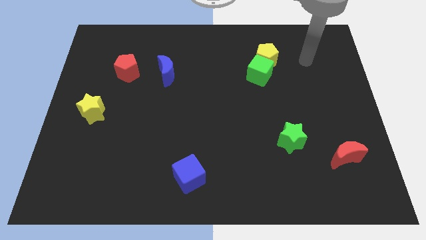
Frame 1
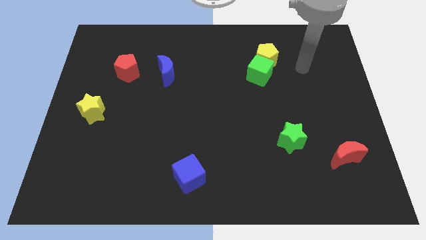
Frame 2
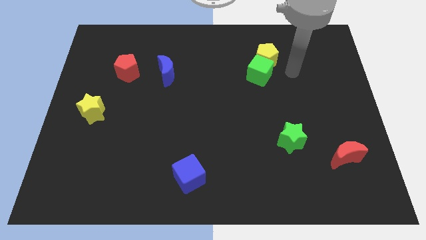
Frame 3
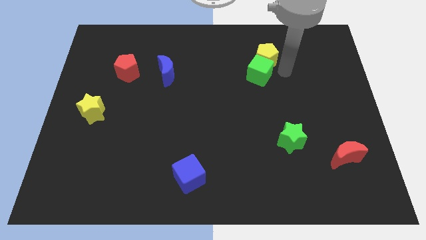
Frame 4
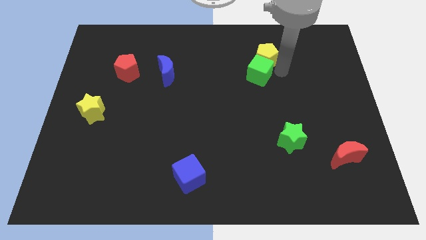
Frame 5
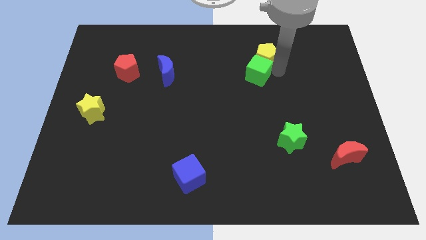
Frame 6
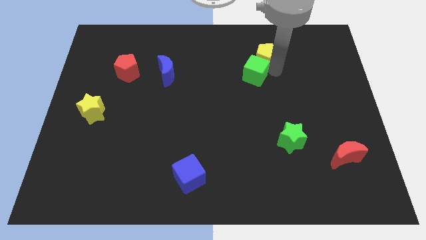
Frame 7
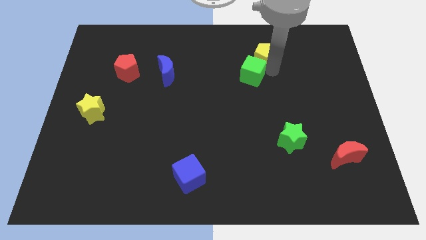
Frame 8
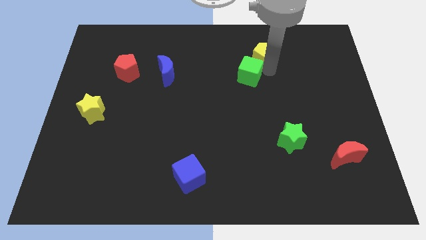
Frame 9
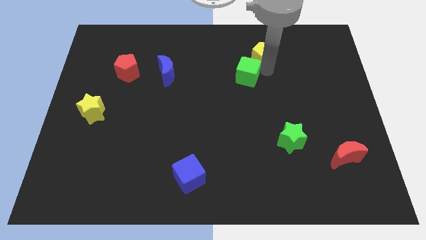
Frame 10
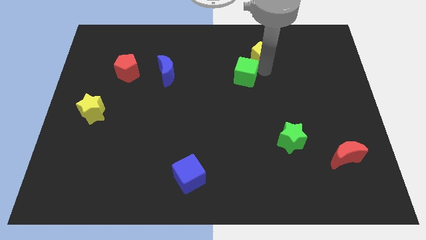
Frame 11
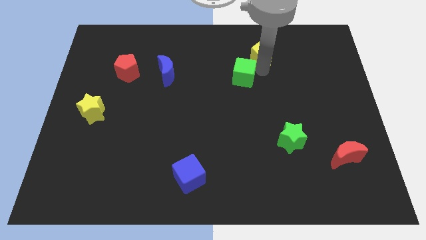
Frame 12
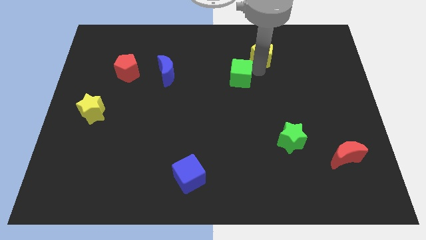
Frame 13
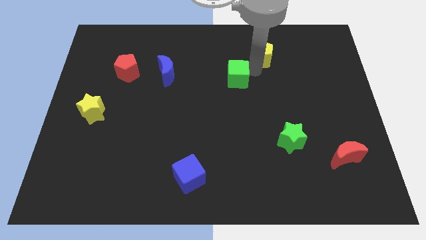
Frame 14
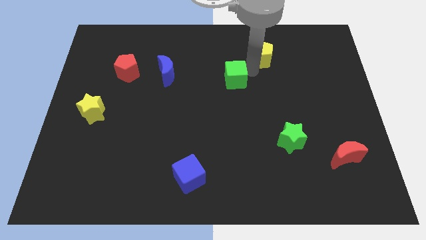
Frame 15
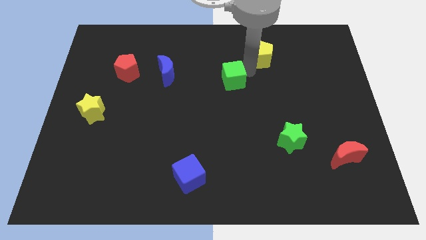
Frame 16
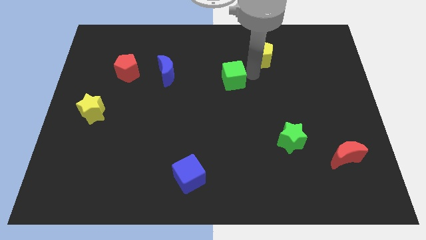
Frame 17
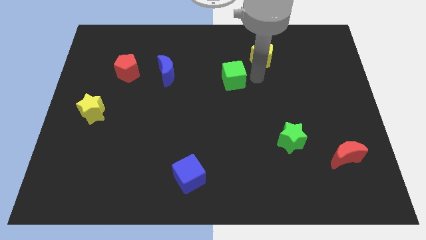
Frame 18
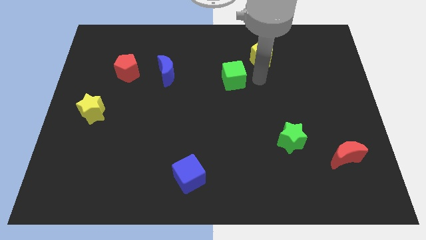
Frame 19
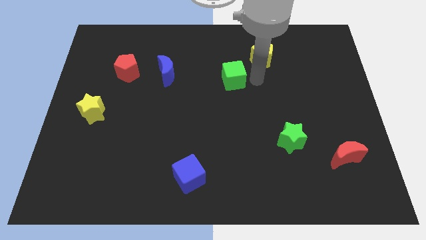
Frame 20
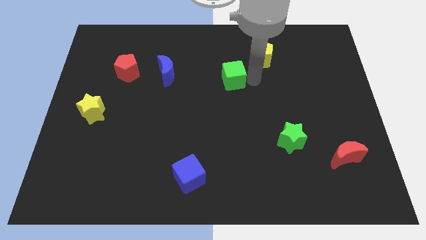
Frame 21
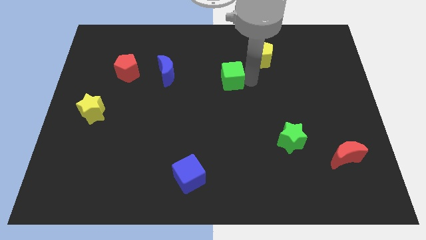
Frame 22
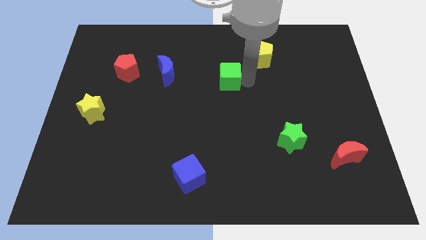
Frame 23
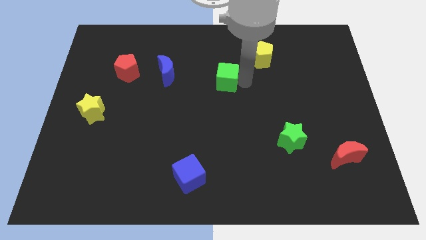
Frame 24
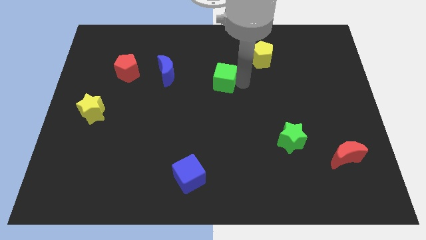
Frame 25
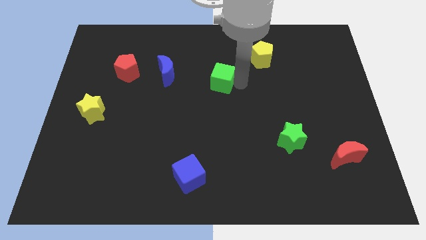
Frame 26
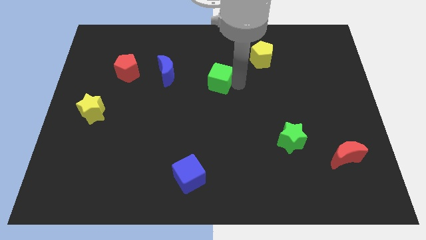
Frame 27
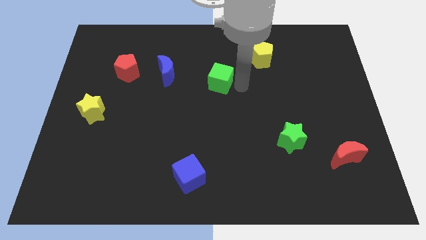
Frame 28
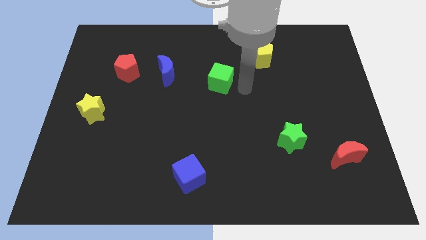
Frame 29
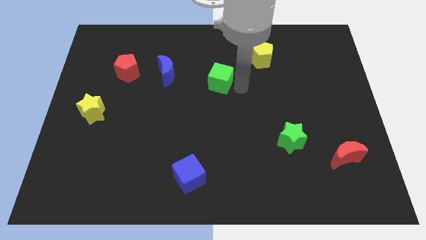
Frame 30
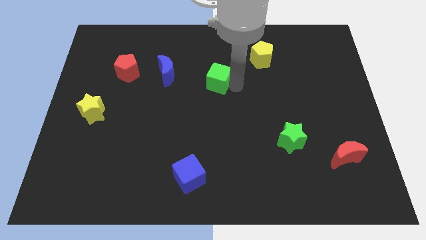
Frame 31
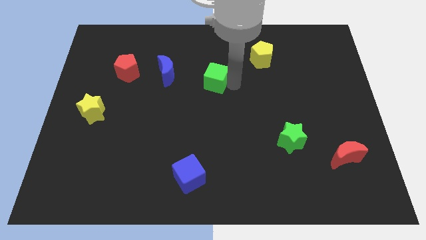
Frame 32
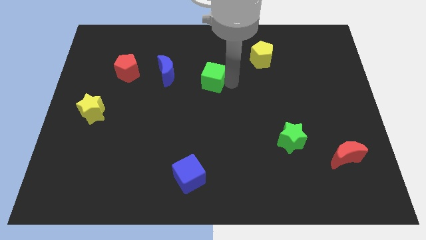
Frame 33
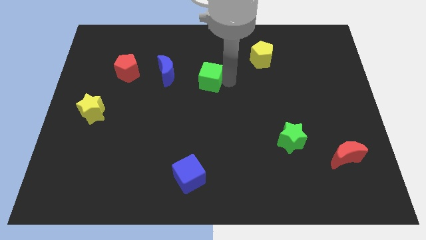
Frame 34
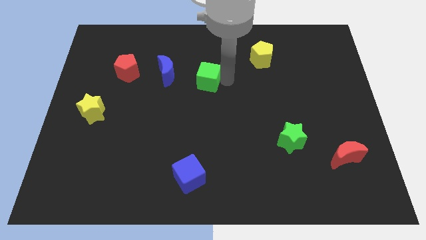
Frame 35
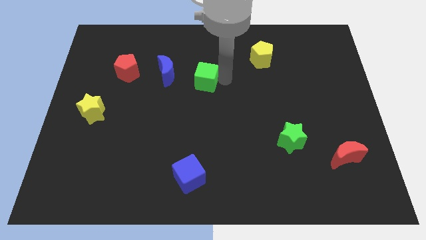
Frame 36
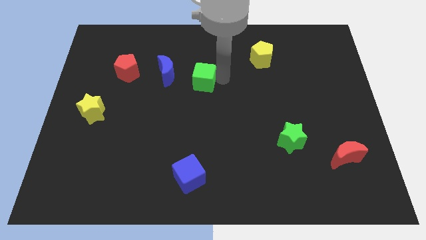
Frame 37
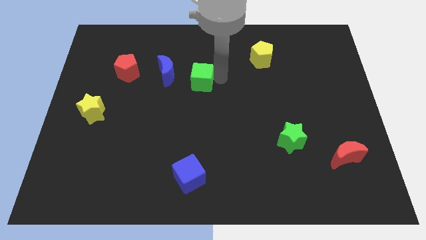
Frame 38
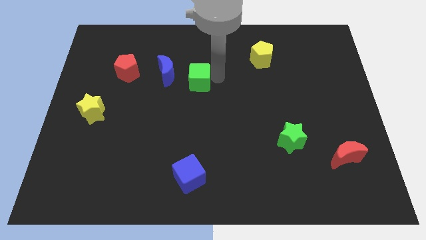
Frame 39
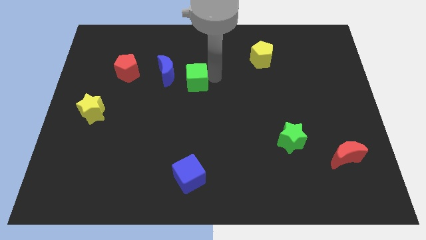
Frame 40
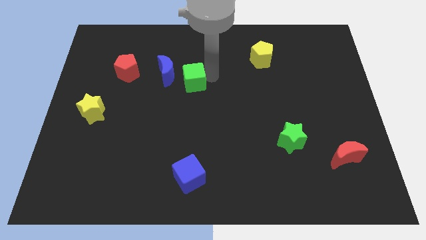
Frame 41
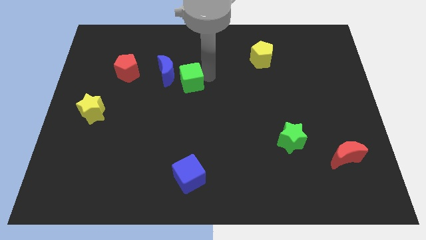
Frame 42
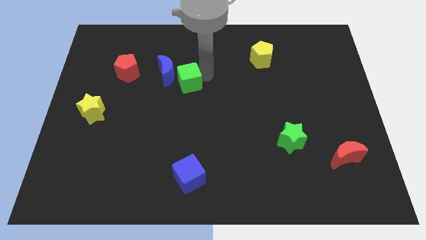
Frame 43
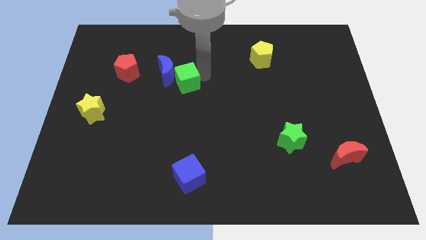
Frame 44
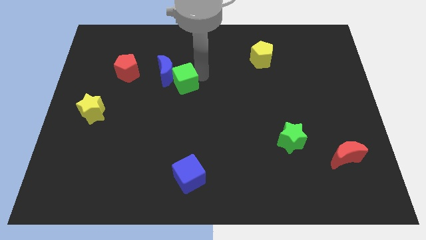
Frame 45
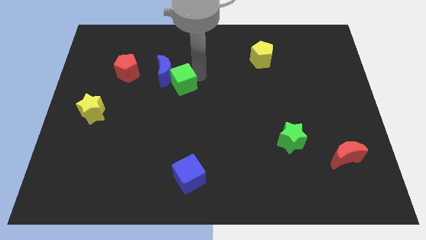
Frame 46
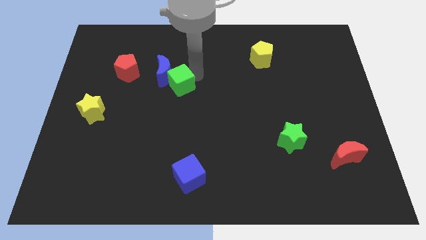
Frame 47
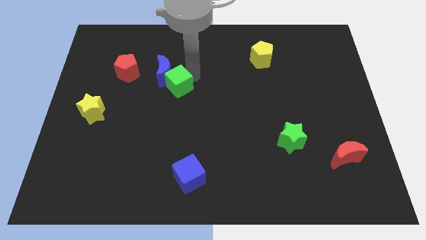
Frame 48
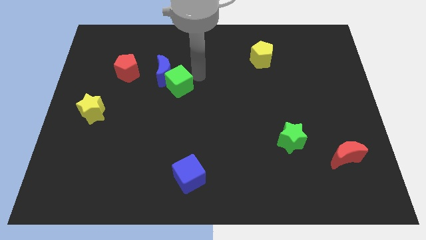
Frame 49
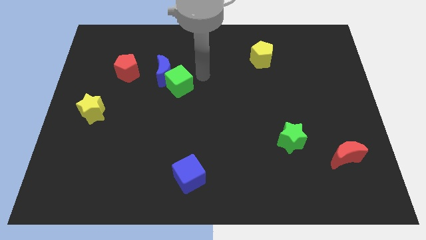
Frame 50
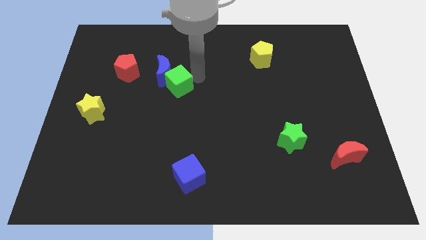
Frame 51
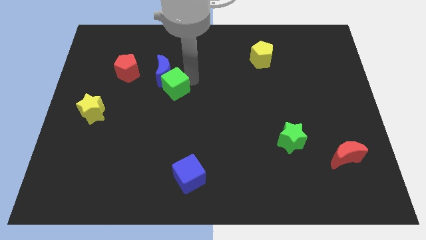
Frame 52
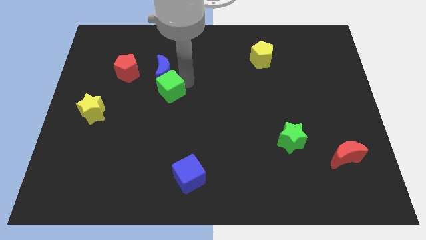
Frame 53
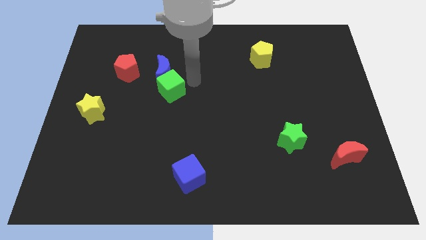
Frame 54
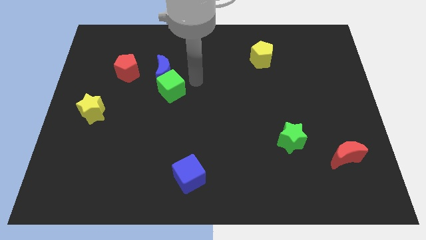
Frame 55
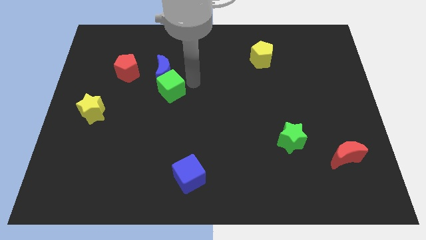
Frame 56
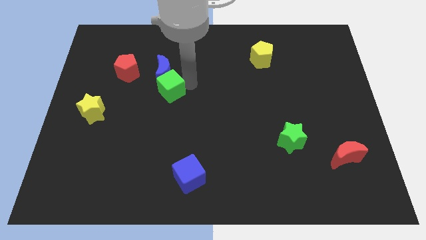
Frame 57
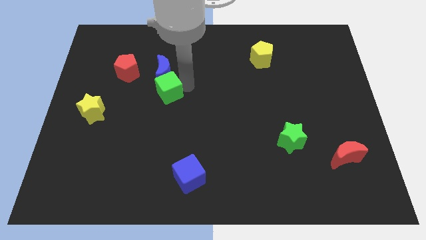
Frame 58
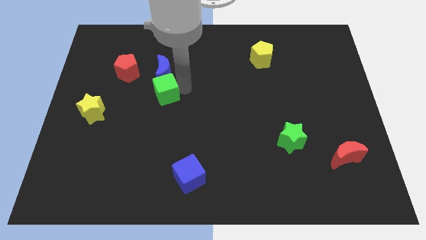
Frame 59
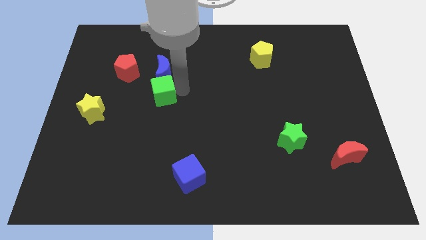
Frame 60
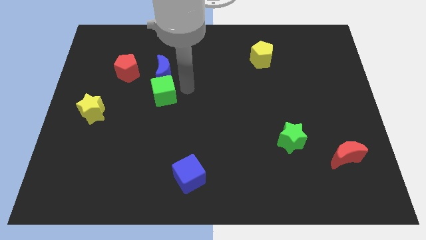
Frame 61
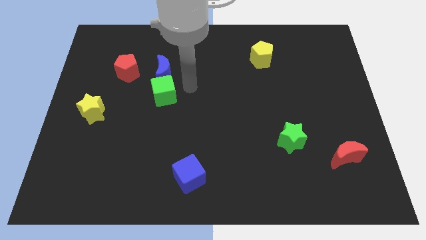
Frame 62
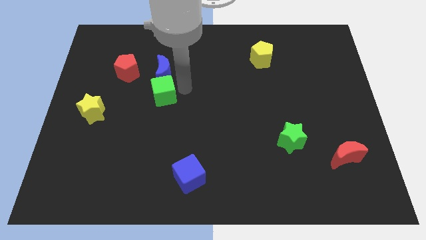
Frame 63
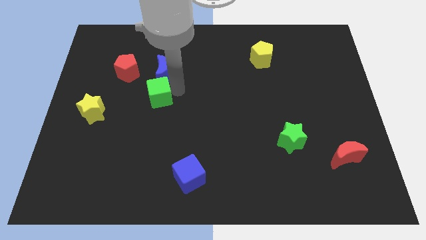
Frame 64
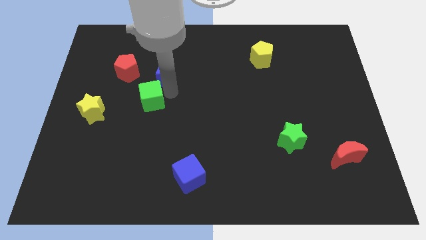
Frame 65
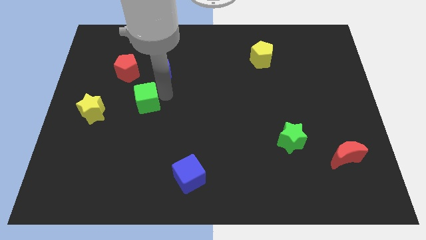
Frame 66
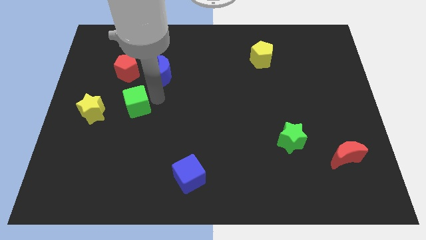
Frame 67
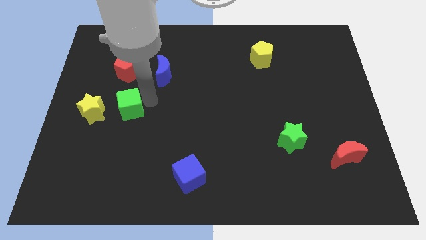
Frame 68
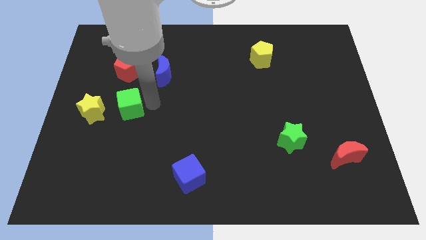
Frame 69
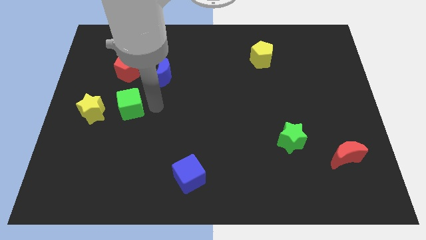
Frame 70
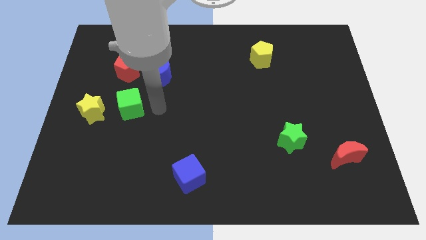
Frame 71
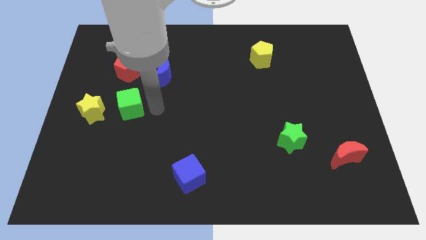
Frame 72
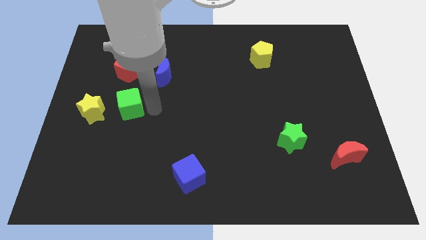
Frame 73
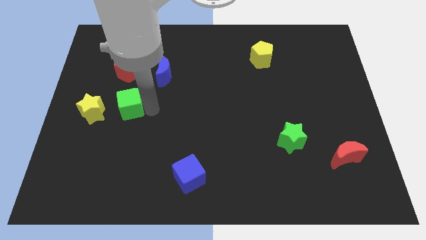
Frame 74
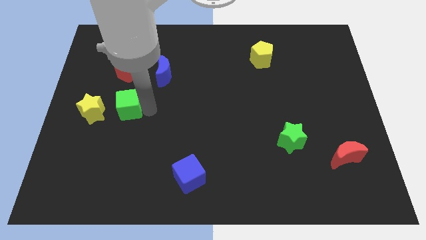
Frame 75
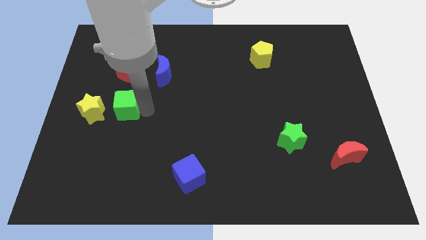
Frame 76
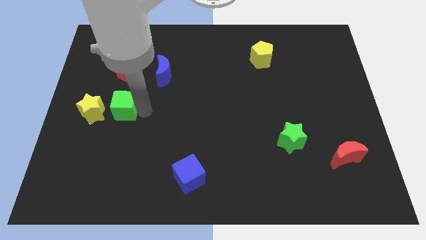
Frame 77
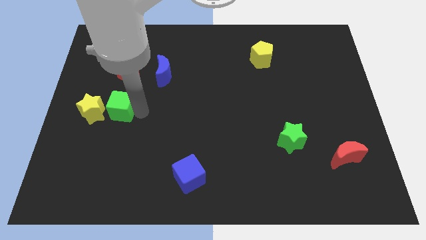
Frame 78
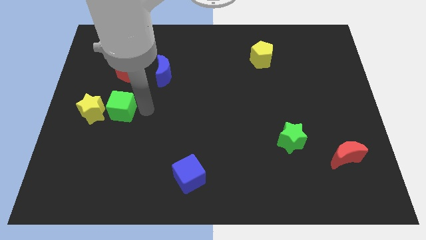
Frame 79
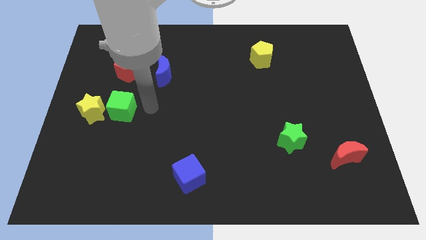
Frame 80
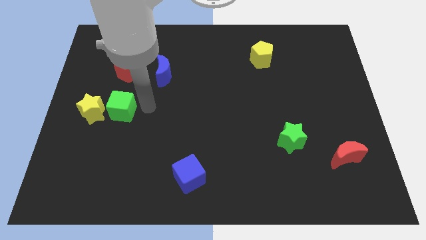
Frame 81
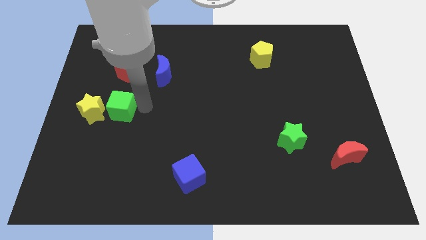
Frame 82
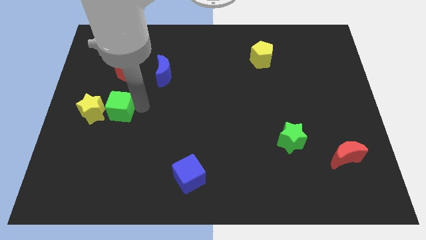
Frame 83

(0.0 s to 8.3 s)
push the green cube close to the yellow star
